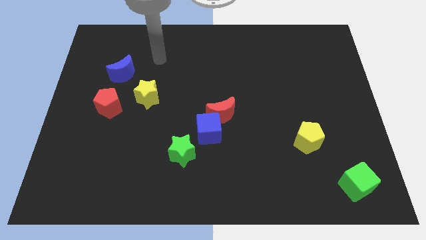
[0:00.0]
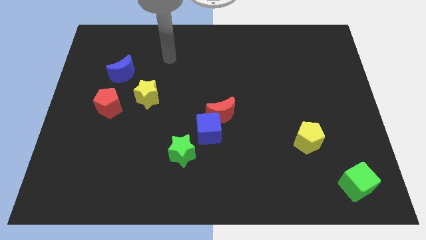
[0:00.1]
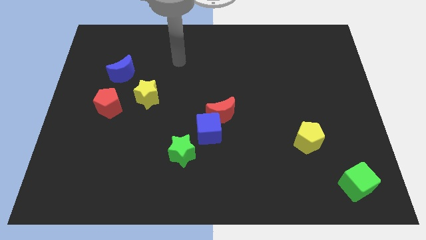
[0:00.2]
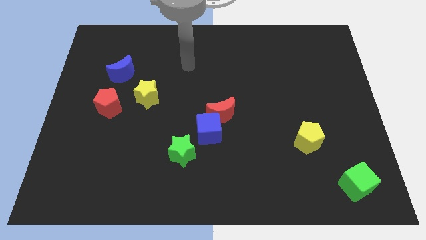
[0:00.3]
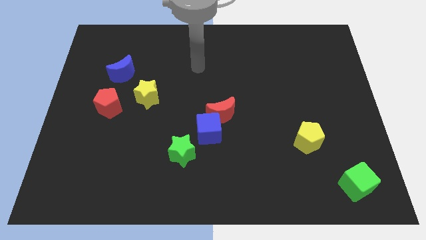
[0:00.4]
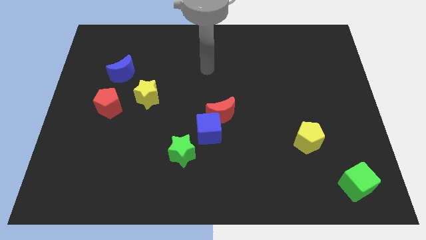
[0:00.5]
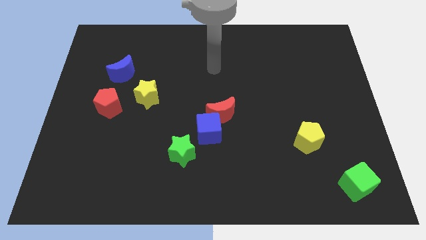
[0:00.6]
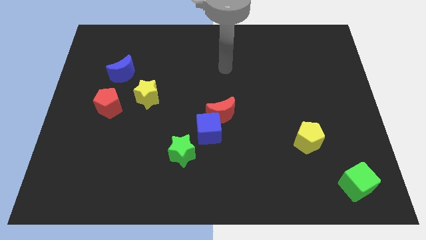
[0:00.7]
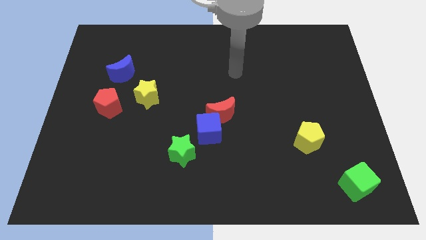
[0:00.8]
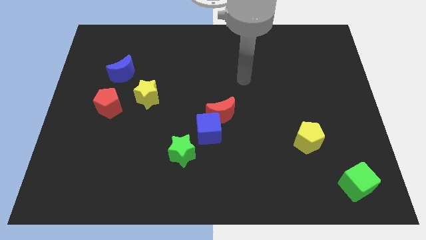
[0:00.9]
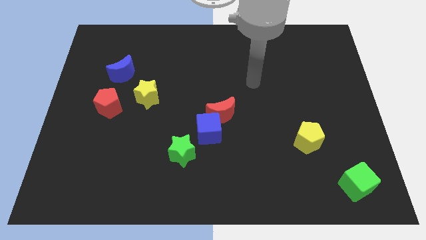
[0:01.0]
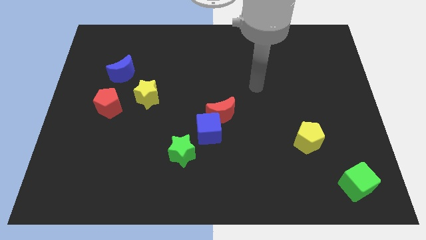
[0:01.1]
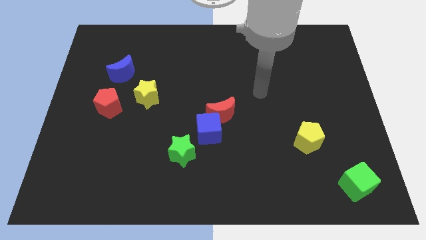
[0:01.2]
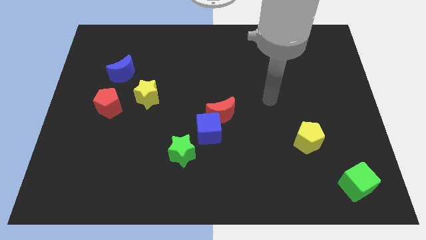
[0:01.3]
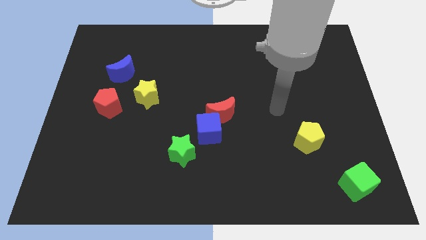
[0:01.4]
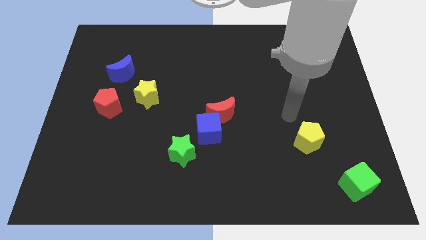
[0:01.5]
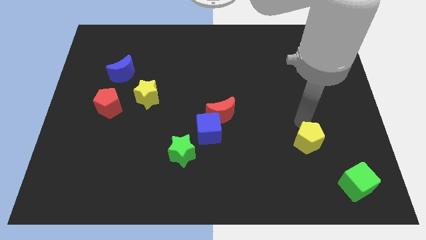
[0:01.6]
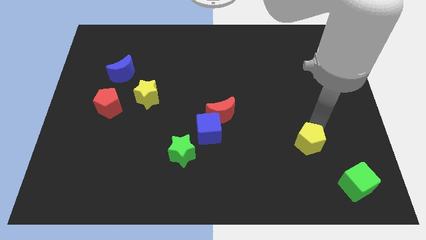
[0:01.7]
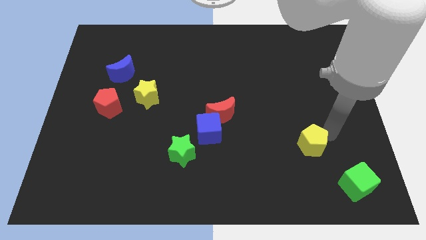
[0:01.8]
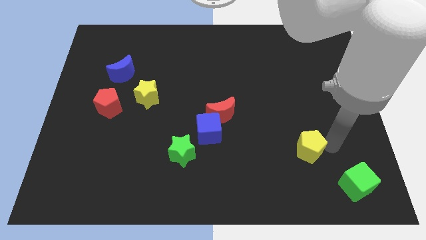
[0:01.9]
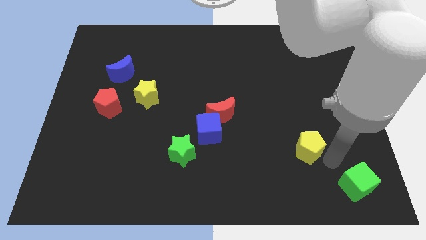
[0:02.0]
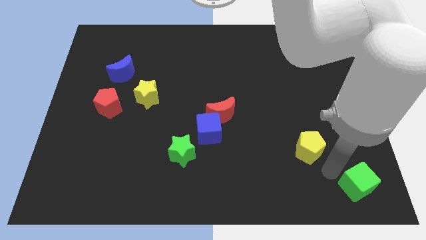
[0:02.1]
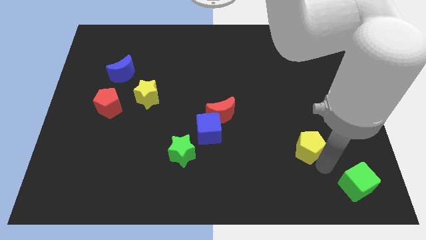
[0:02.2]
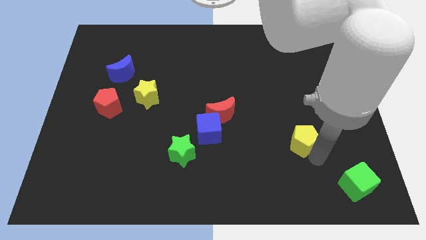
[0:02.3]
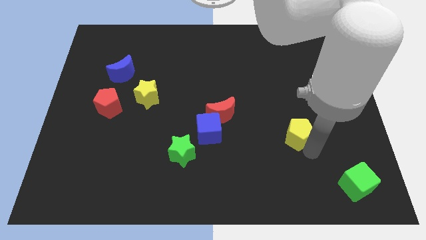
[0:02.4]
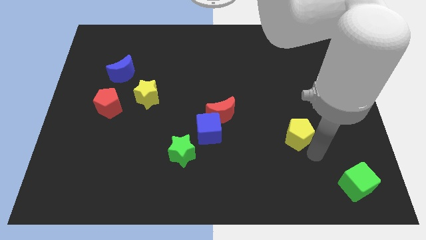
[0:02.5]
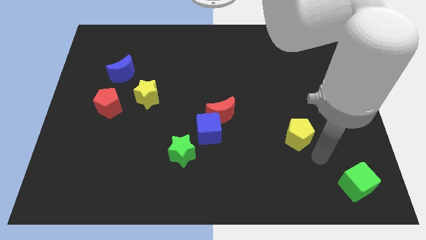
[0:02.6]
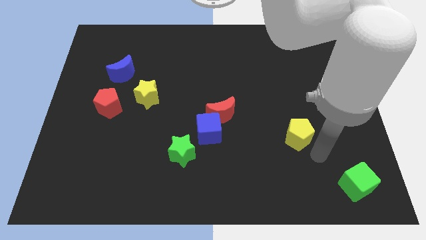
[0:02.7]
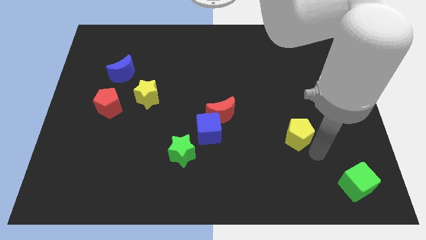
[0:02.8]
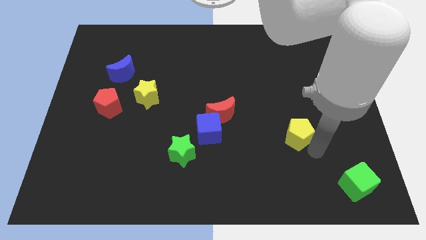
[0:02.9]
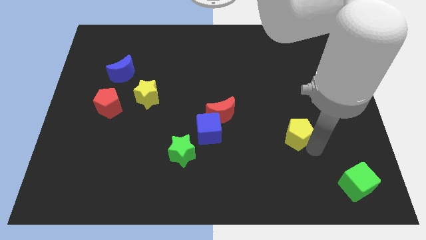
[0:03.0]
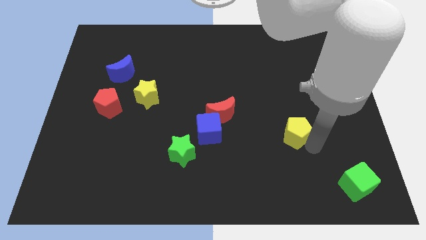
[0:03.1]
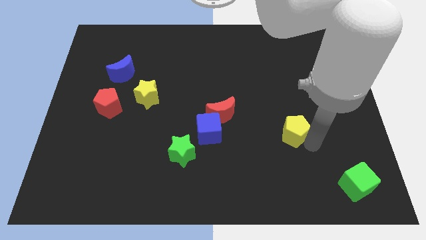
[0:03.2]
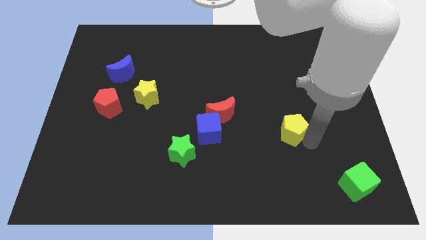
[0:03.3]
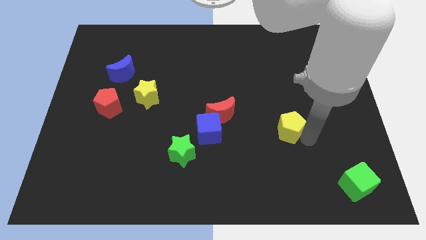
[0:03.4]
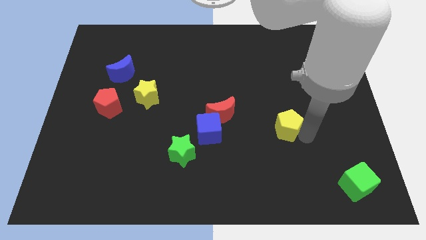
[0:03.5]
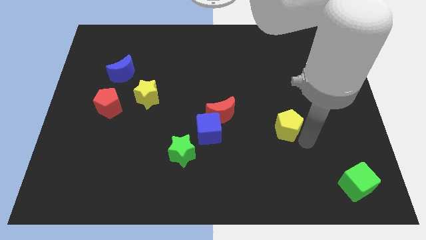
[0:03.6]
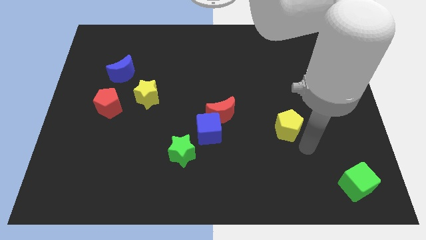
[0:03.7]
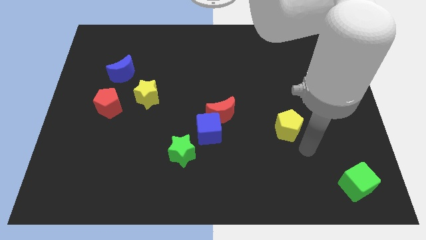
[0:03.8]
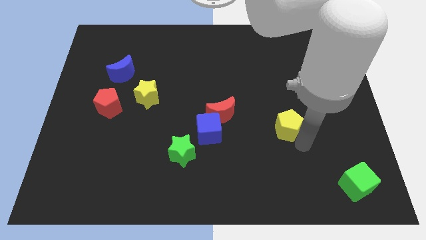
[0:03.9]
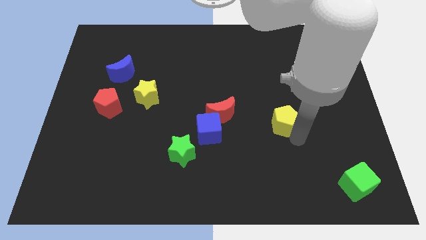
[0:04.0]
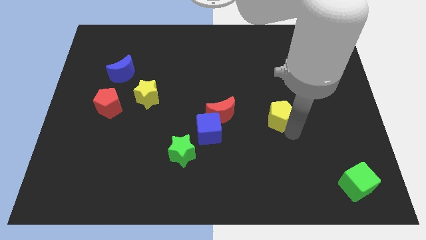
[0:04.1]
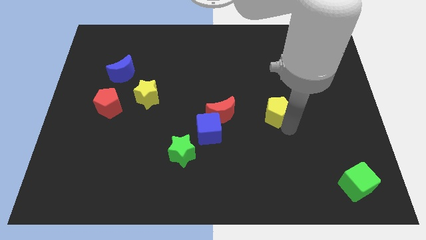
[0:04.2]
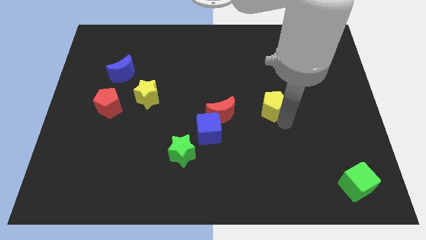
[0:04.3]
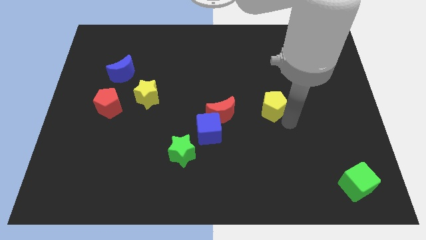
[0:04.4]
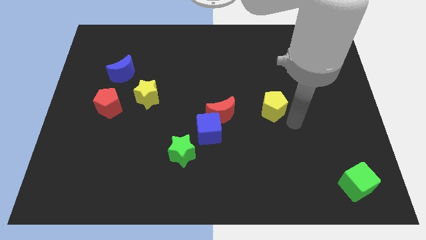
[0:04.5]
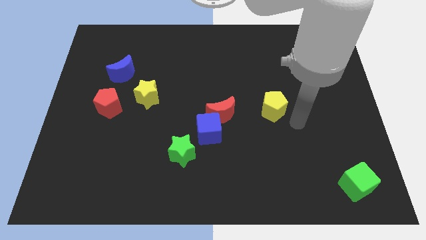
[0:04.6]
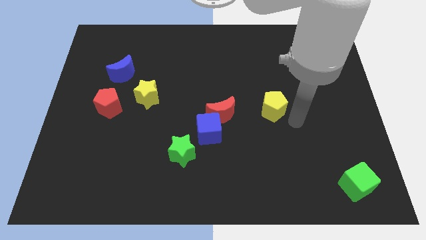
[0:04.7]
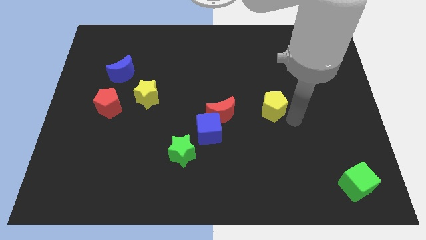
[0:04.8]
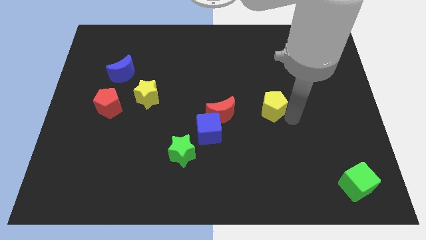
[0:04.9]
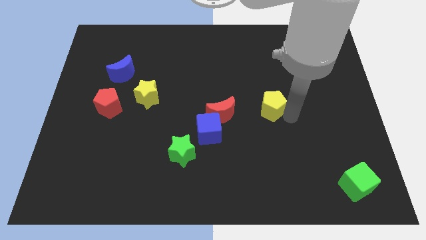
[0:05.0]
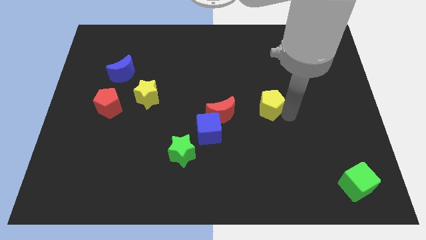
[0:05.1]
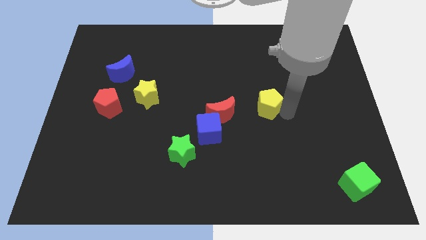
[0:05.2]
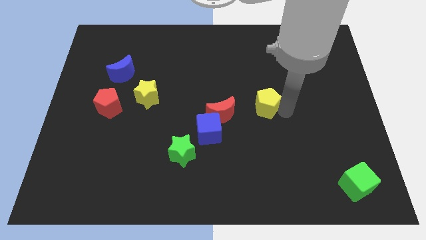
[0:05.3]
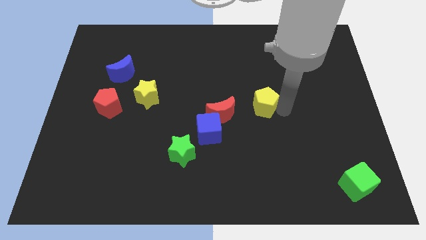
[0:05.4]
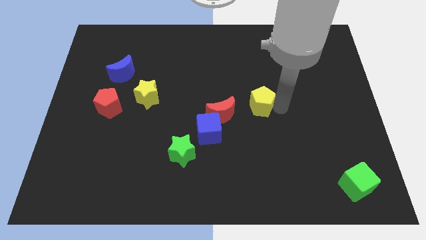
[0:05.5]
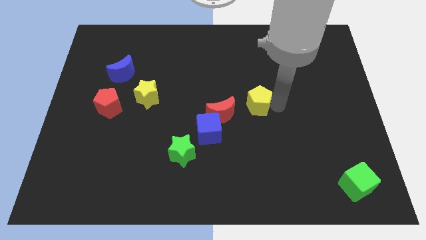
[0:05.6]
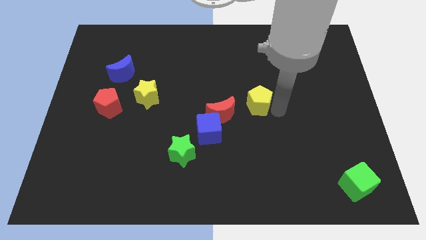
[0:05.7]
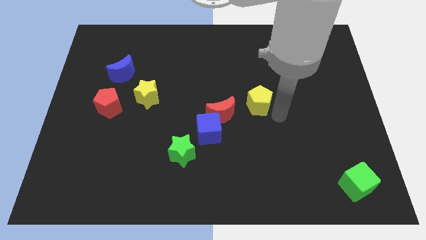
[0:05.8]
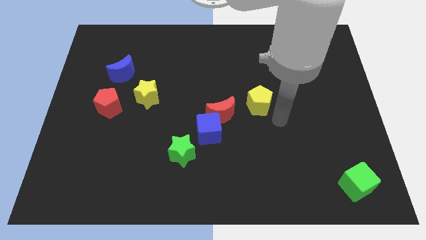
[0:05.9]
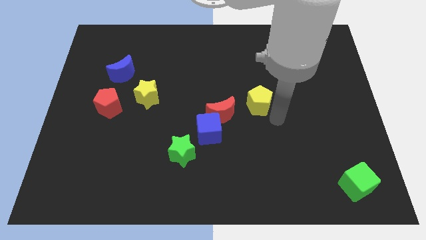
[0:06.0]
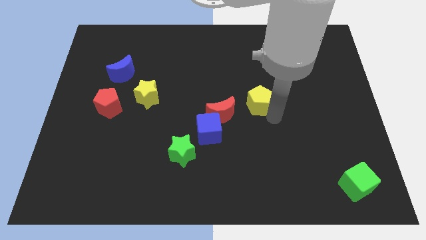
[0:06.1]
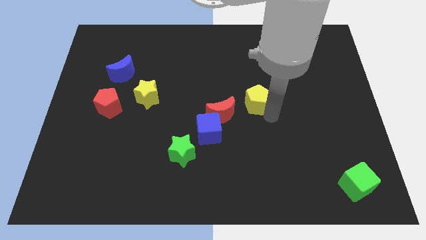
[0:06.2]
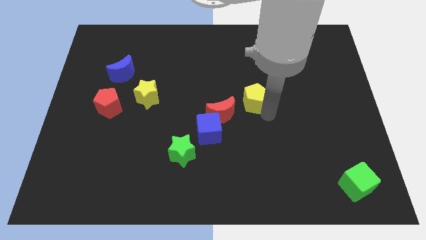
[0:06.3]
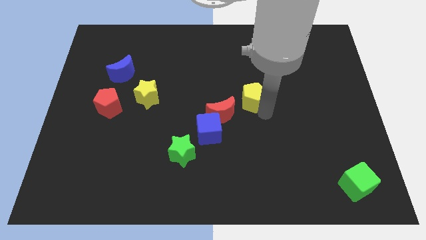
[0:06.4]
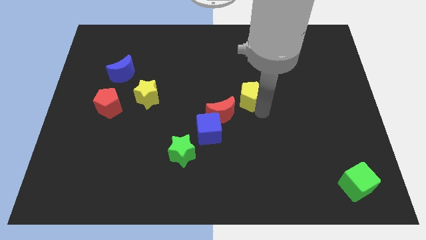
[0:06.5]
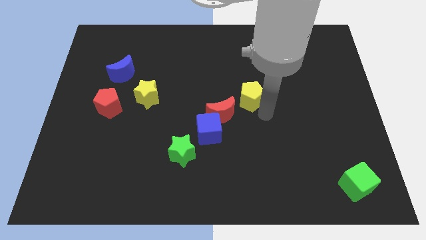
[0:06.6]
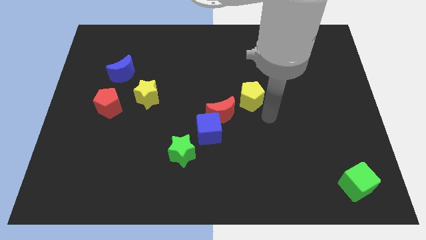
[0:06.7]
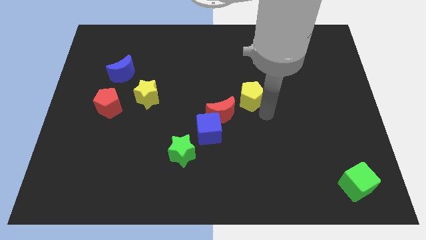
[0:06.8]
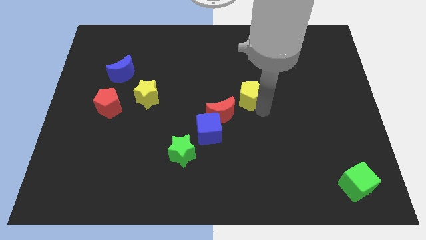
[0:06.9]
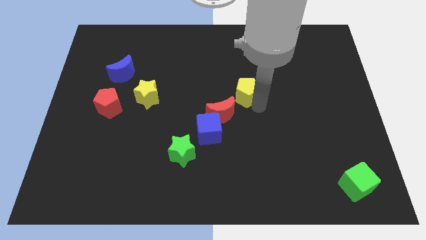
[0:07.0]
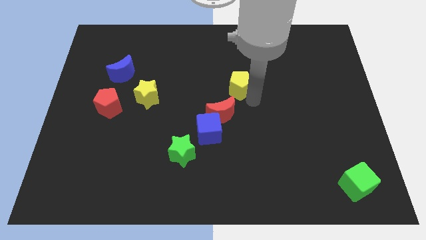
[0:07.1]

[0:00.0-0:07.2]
move the yellow pentagon up and to the left

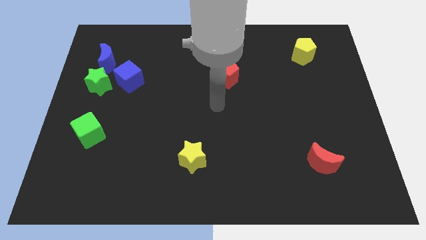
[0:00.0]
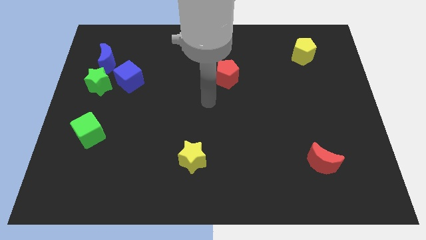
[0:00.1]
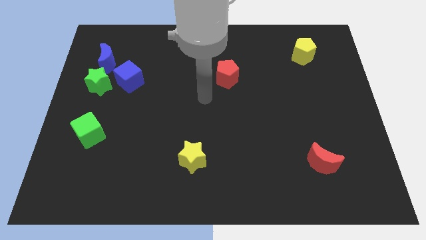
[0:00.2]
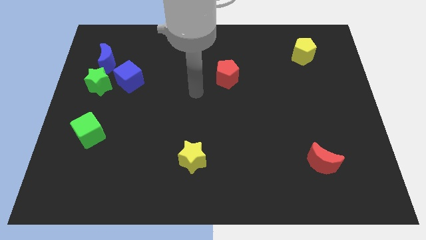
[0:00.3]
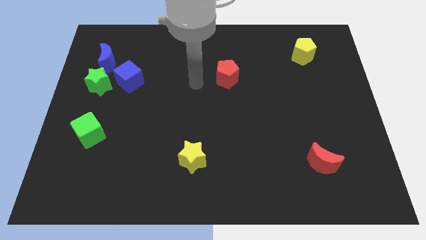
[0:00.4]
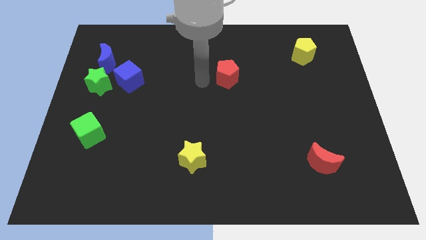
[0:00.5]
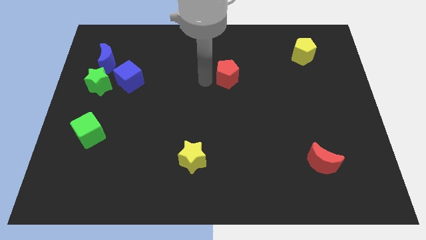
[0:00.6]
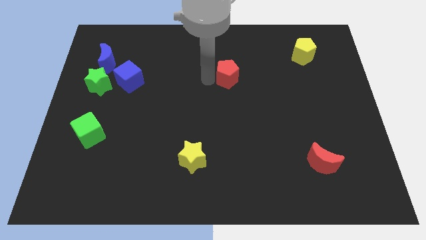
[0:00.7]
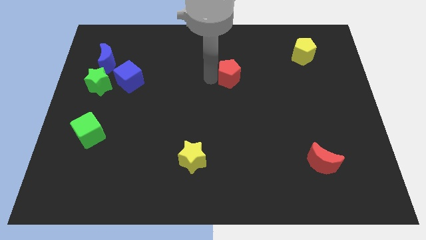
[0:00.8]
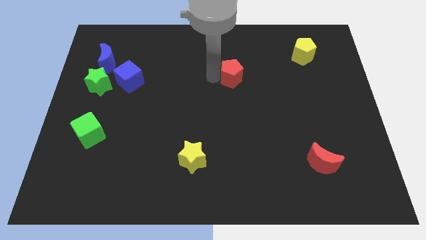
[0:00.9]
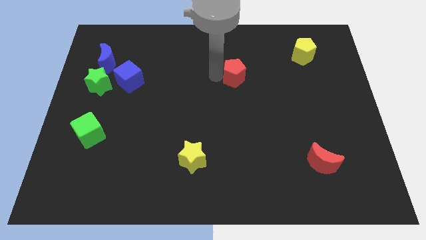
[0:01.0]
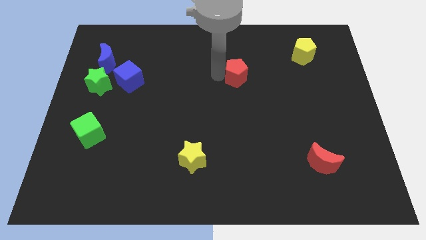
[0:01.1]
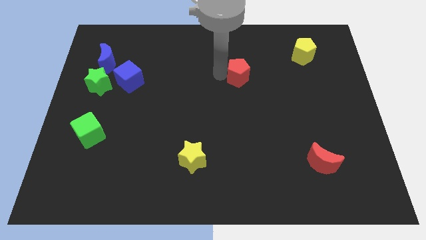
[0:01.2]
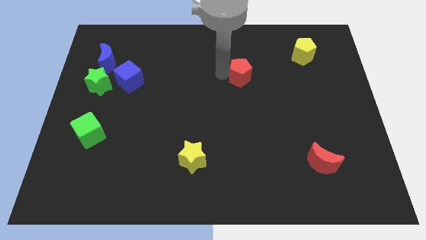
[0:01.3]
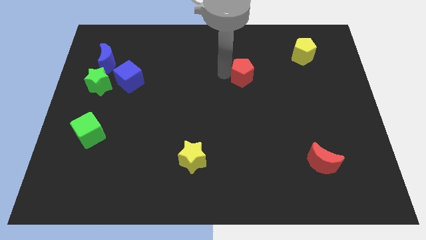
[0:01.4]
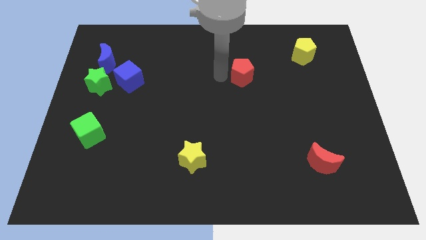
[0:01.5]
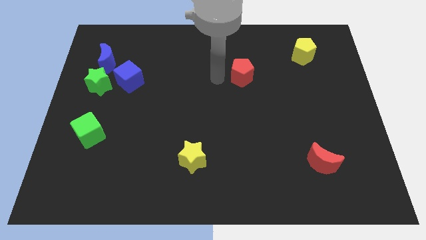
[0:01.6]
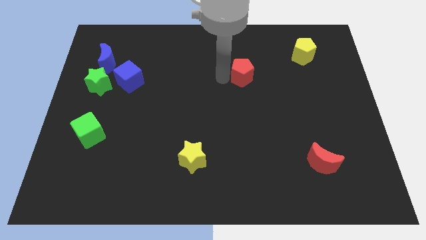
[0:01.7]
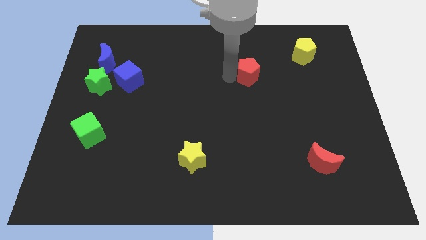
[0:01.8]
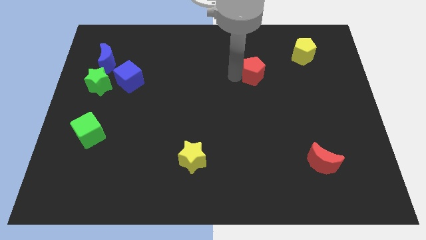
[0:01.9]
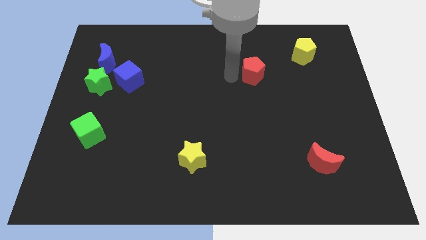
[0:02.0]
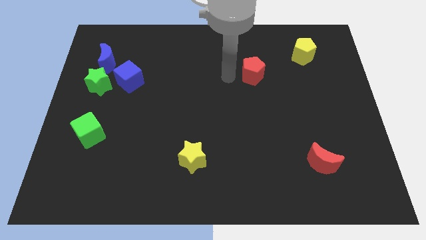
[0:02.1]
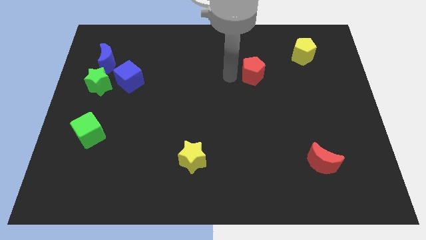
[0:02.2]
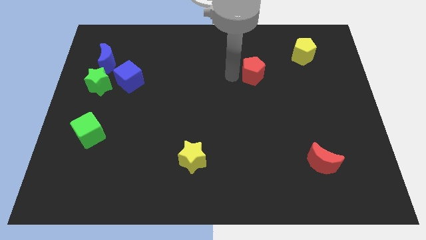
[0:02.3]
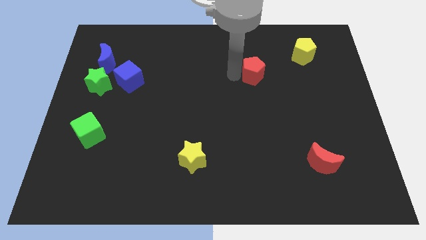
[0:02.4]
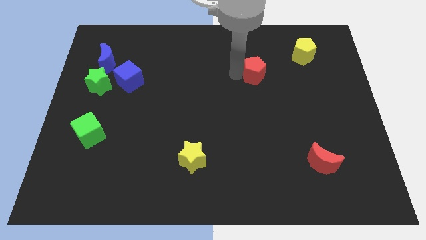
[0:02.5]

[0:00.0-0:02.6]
slightly push the red pentagon right
